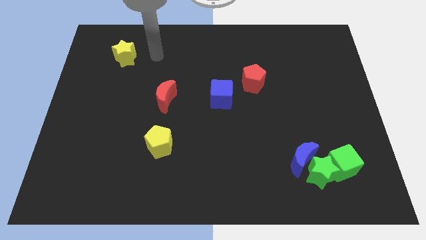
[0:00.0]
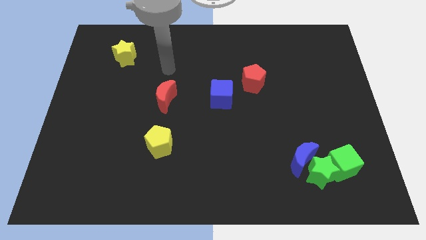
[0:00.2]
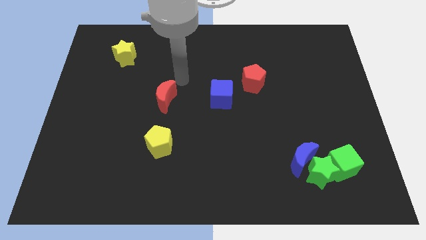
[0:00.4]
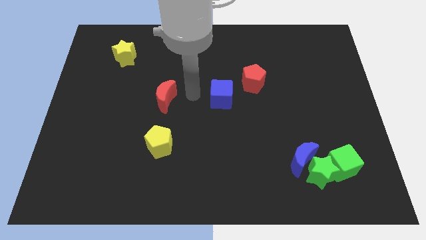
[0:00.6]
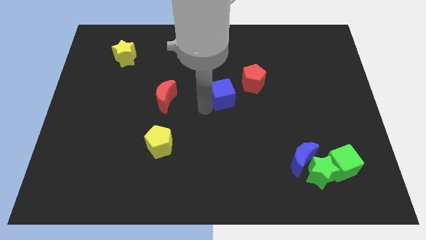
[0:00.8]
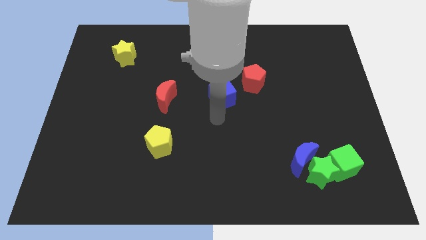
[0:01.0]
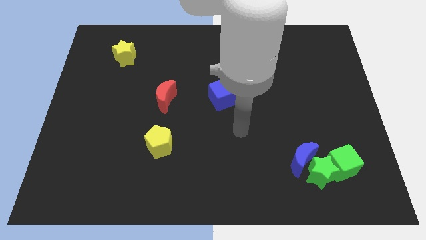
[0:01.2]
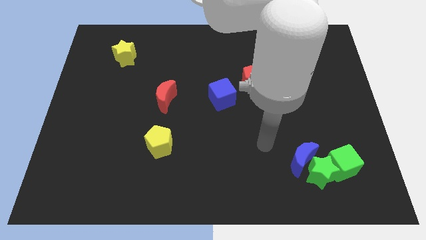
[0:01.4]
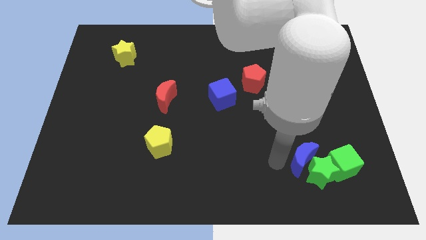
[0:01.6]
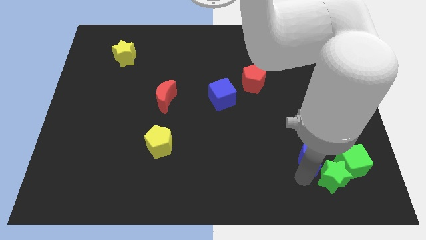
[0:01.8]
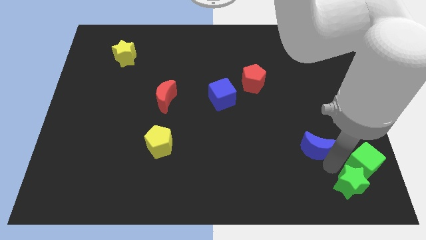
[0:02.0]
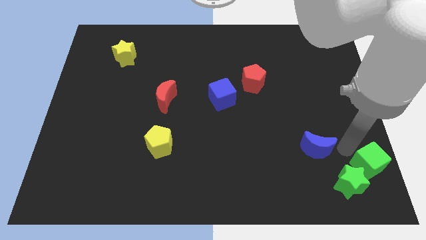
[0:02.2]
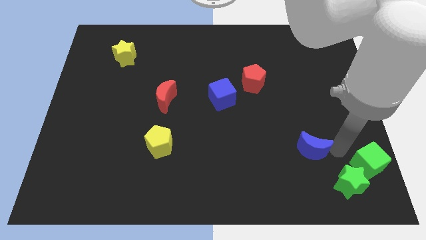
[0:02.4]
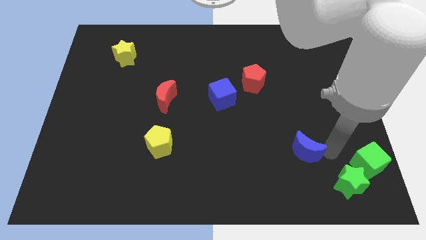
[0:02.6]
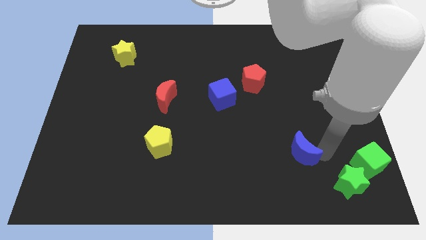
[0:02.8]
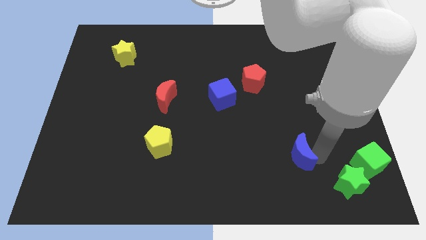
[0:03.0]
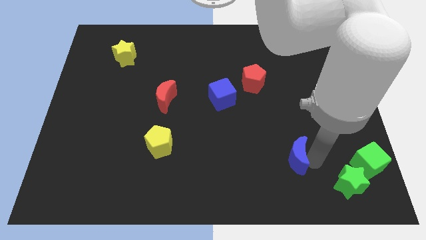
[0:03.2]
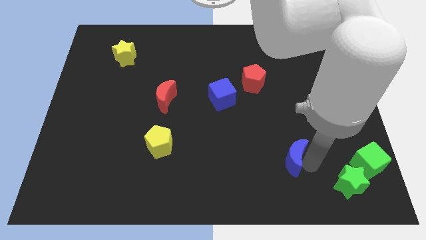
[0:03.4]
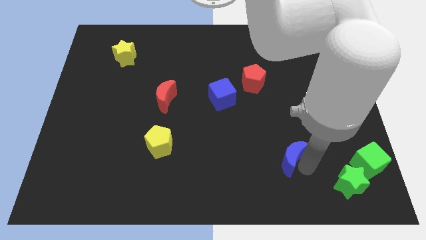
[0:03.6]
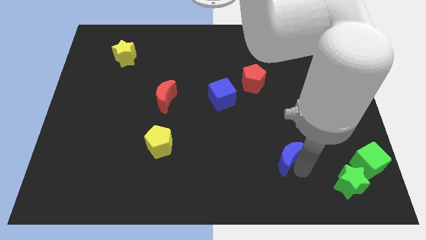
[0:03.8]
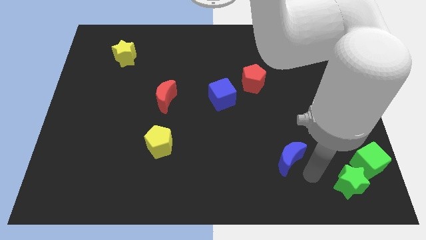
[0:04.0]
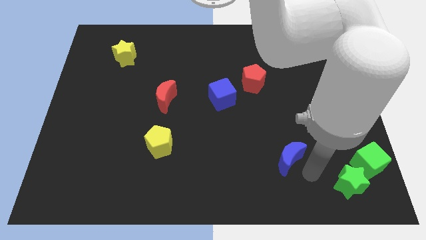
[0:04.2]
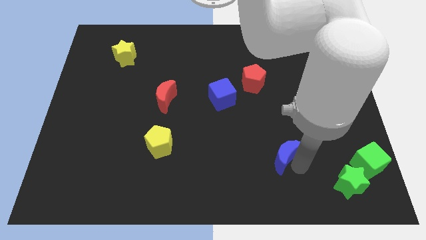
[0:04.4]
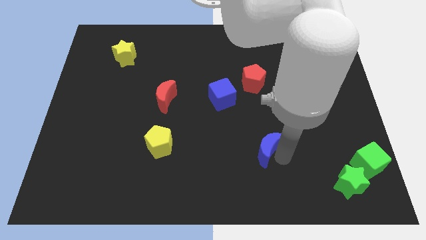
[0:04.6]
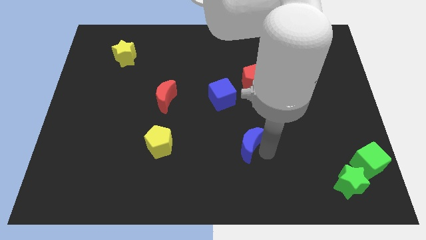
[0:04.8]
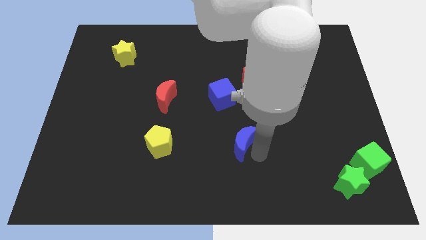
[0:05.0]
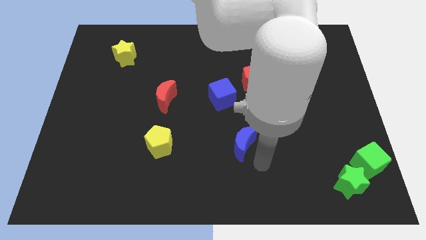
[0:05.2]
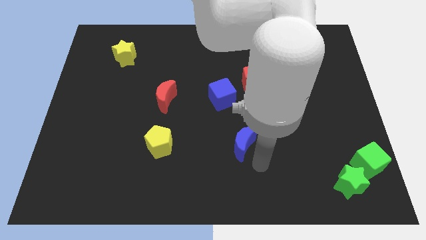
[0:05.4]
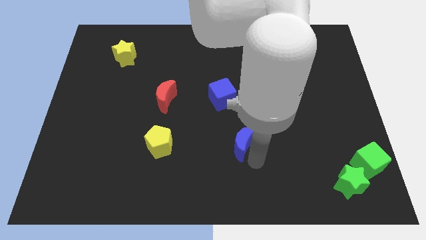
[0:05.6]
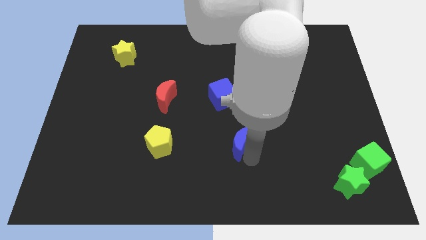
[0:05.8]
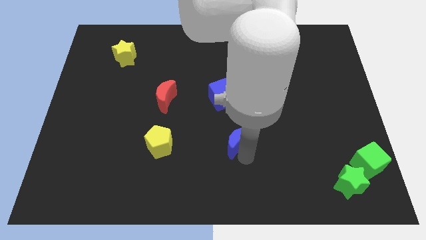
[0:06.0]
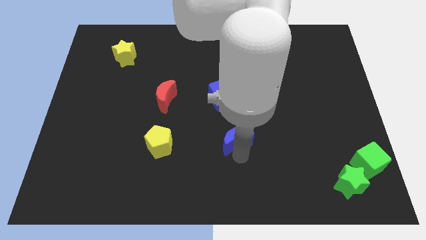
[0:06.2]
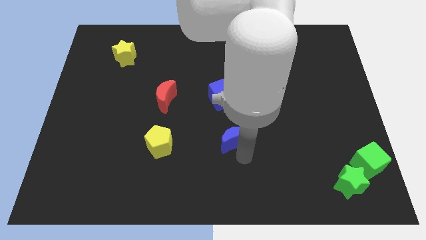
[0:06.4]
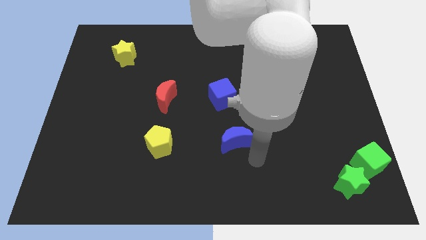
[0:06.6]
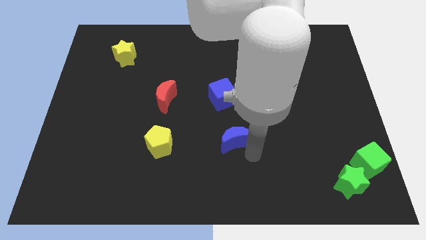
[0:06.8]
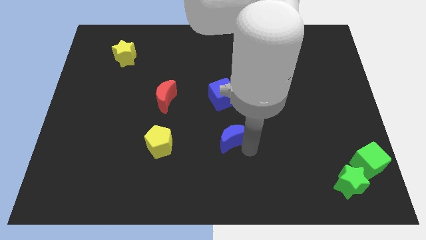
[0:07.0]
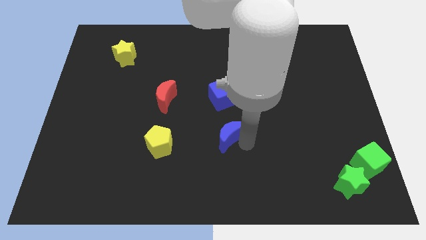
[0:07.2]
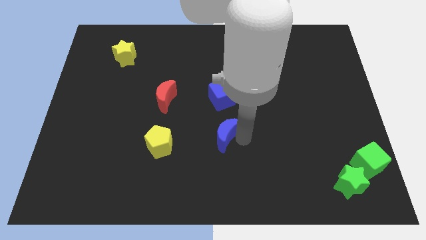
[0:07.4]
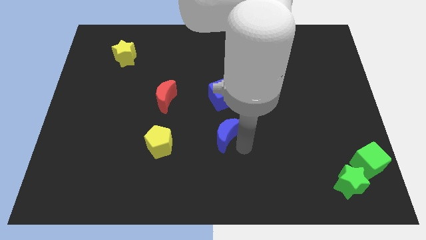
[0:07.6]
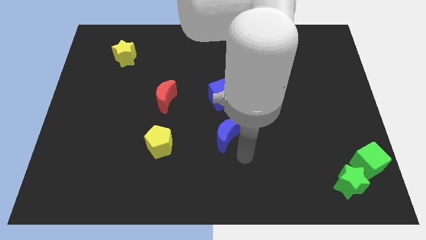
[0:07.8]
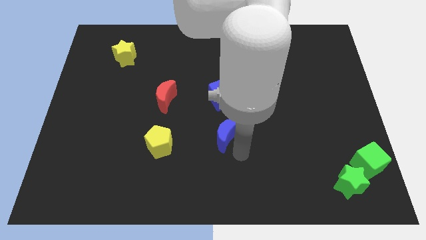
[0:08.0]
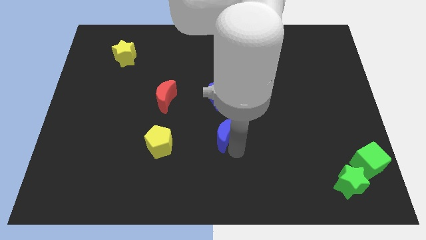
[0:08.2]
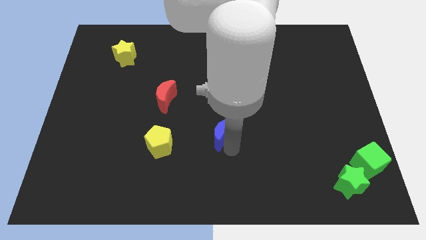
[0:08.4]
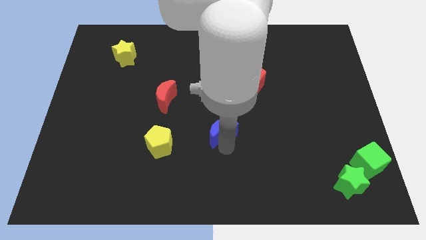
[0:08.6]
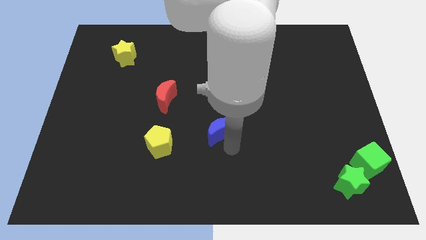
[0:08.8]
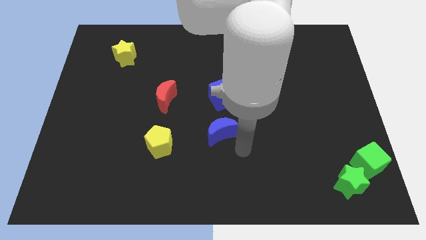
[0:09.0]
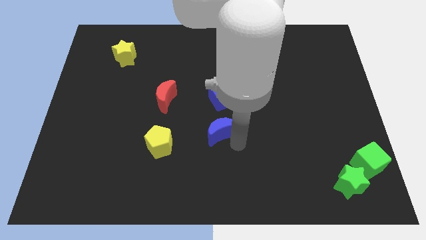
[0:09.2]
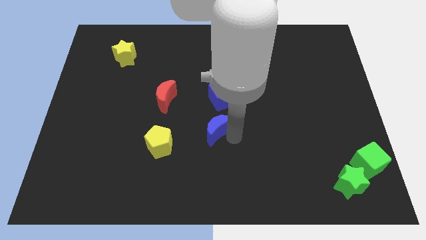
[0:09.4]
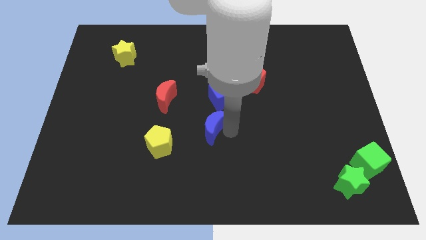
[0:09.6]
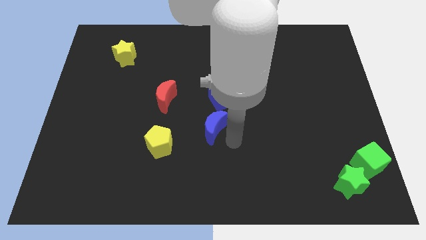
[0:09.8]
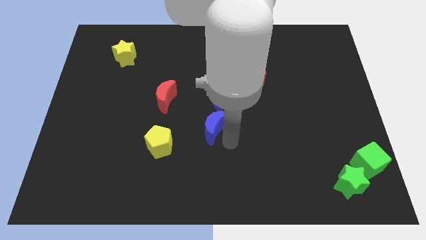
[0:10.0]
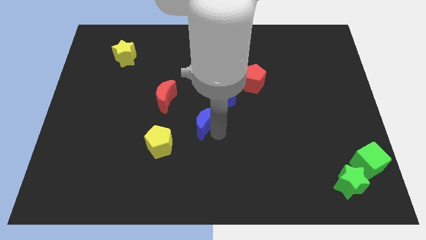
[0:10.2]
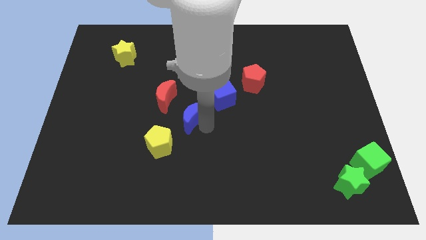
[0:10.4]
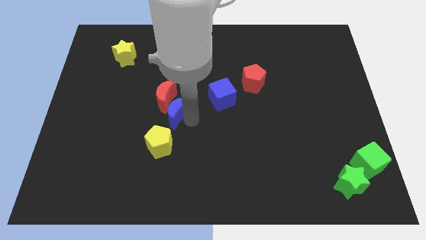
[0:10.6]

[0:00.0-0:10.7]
push the blue moon next to the red moon

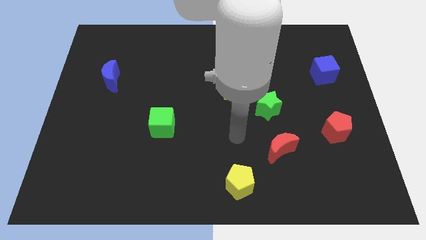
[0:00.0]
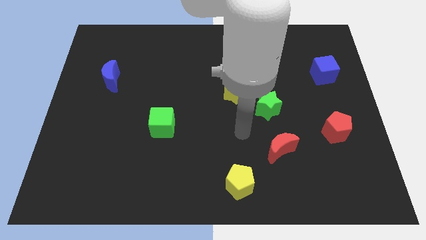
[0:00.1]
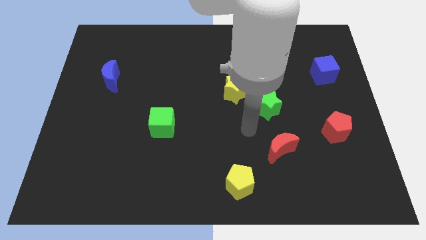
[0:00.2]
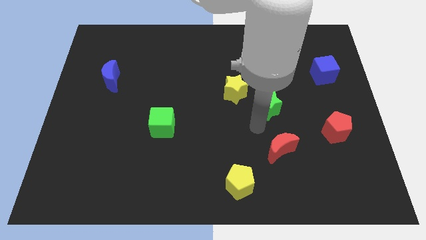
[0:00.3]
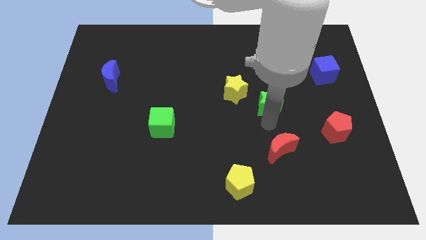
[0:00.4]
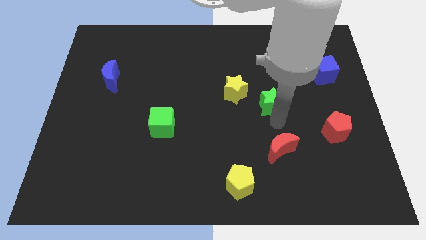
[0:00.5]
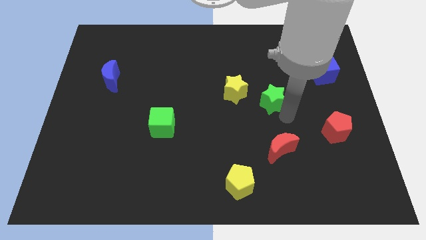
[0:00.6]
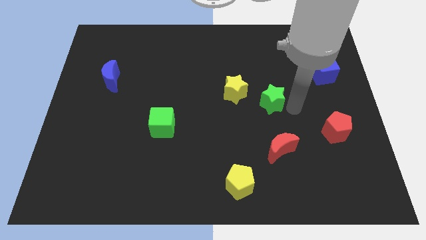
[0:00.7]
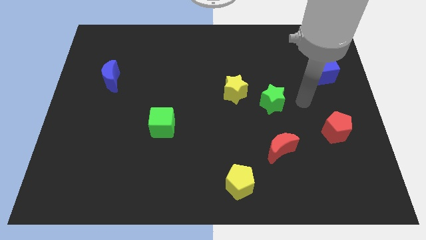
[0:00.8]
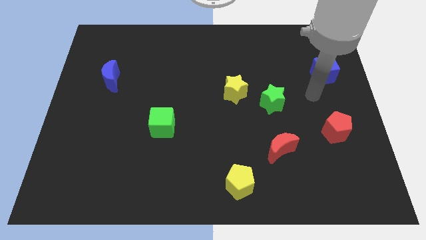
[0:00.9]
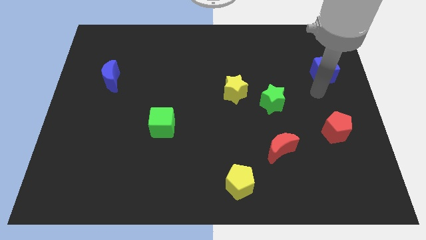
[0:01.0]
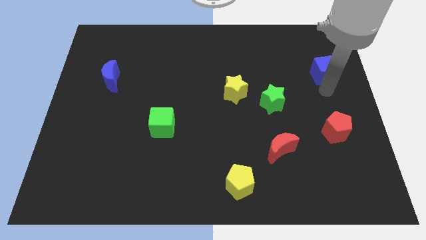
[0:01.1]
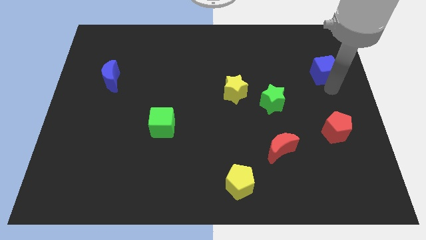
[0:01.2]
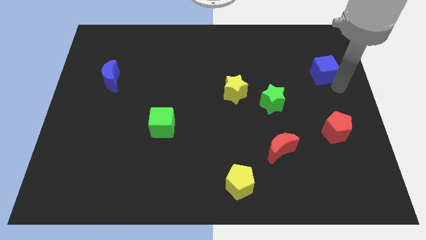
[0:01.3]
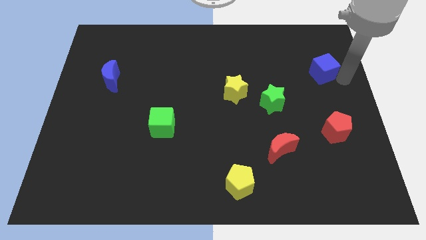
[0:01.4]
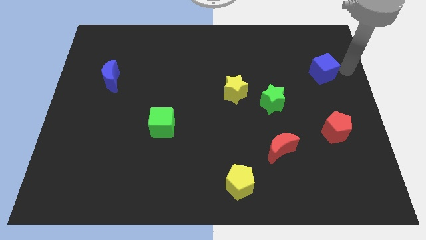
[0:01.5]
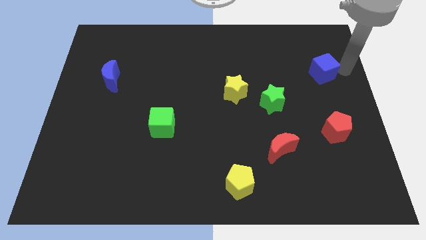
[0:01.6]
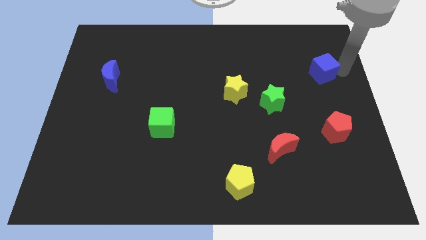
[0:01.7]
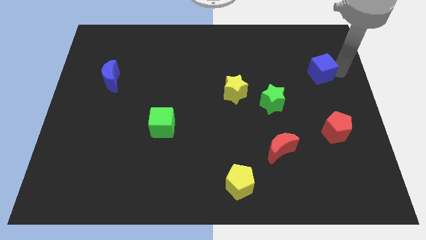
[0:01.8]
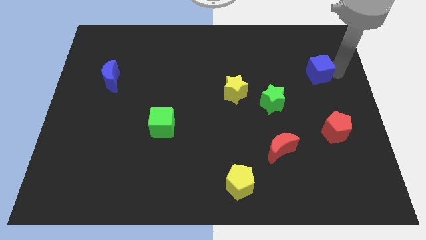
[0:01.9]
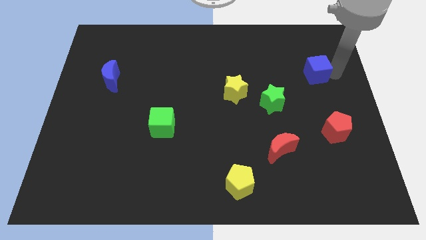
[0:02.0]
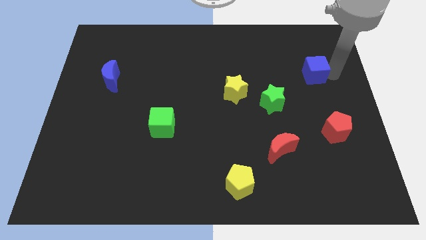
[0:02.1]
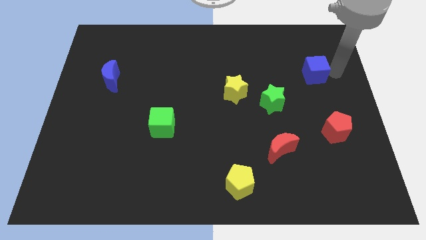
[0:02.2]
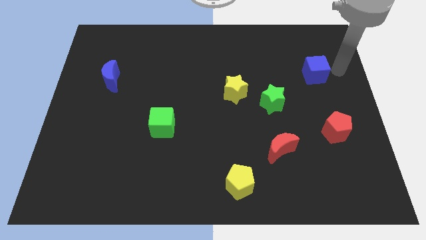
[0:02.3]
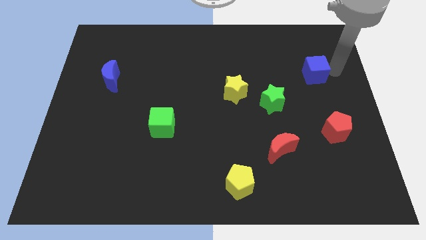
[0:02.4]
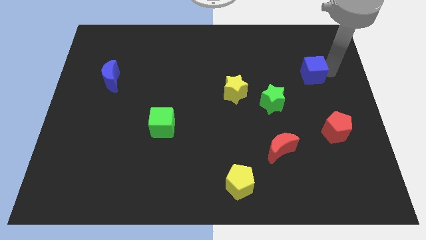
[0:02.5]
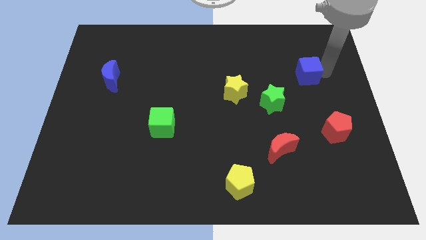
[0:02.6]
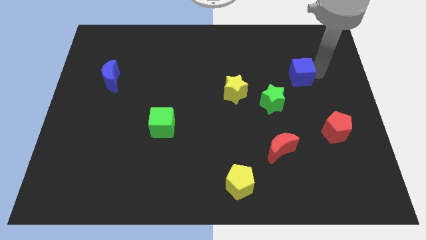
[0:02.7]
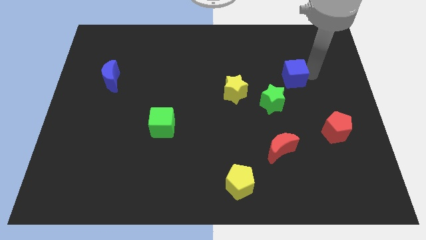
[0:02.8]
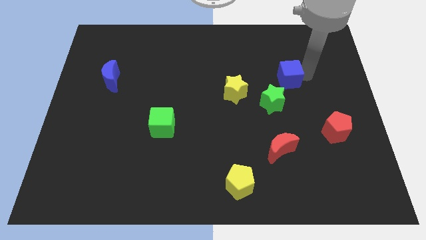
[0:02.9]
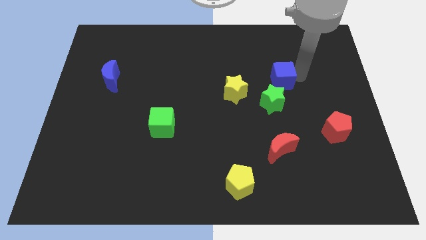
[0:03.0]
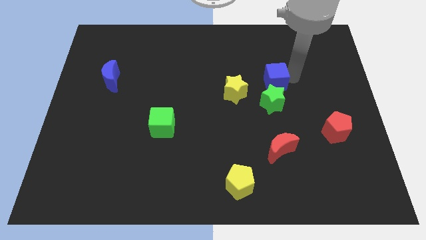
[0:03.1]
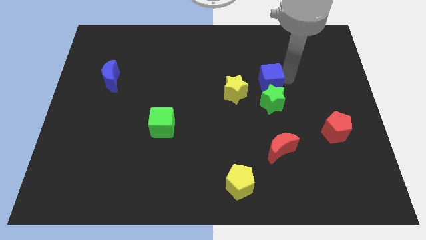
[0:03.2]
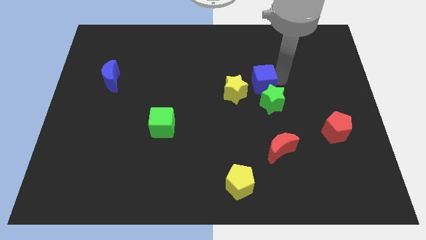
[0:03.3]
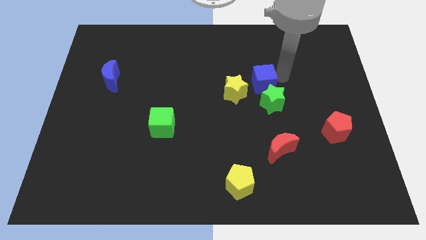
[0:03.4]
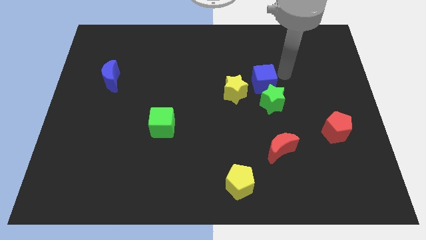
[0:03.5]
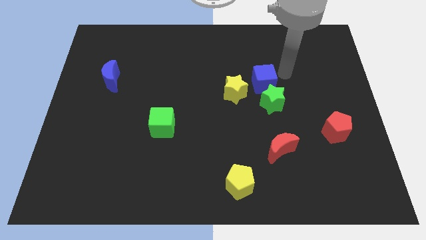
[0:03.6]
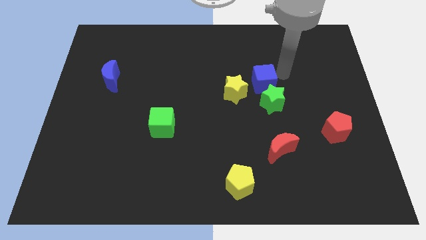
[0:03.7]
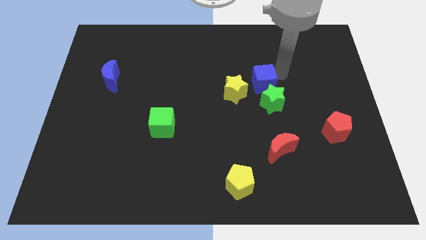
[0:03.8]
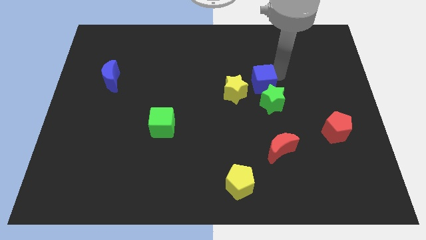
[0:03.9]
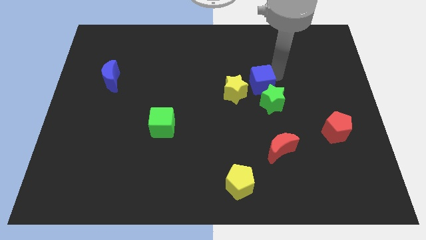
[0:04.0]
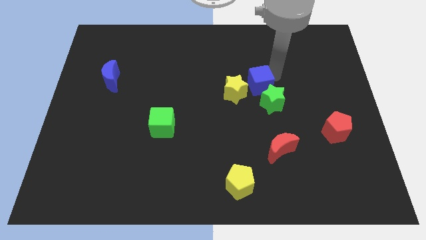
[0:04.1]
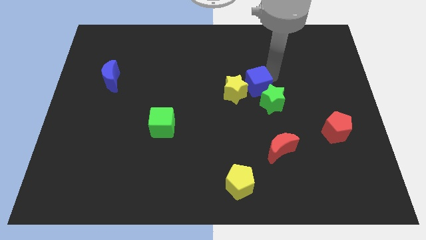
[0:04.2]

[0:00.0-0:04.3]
move the blue cube towards the yellow star
